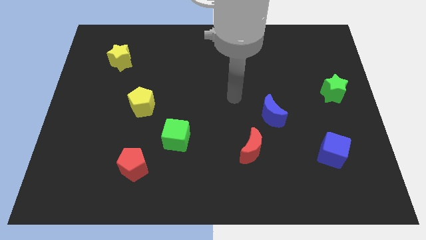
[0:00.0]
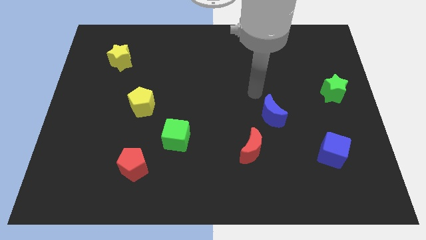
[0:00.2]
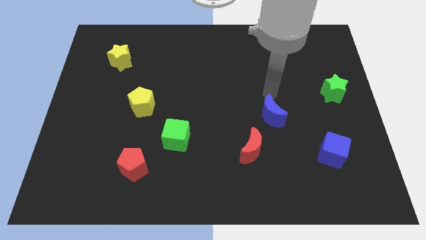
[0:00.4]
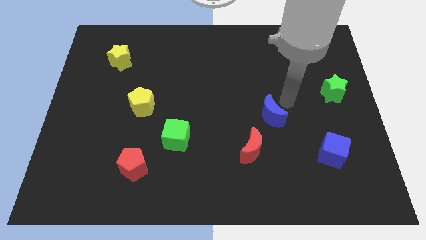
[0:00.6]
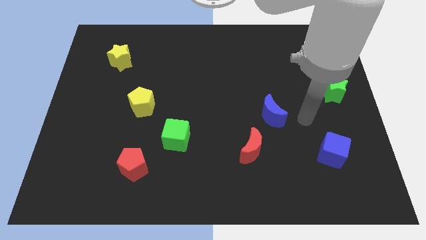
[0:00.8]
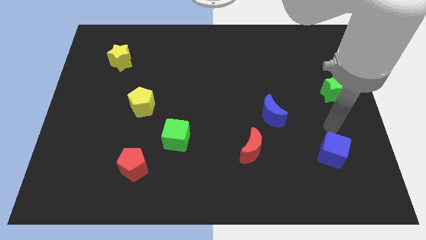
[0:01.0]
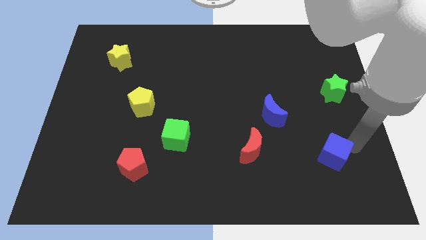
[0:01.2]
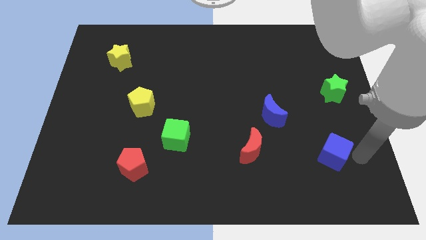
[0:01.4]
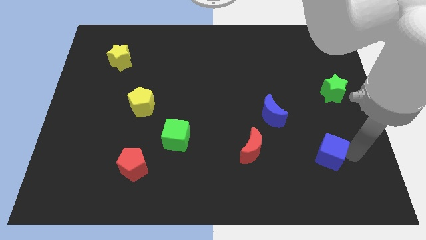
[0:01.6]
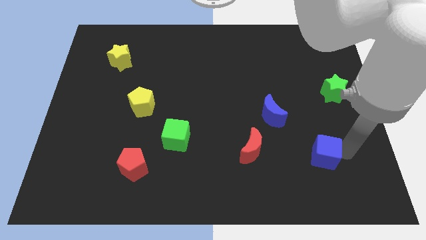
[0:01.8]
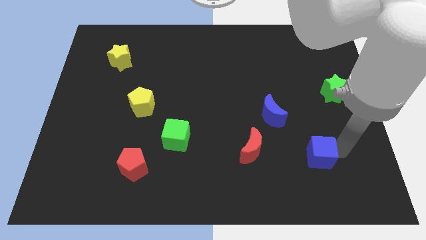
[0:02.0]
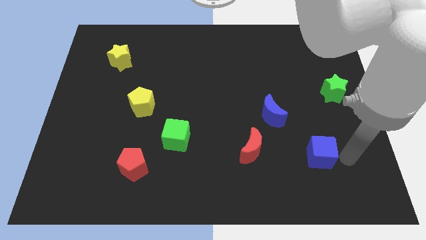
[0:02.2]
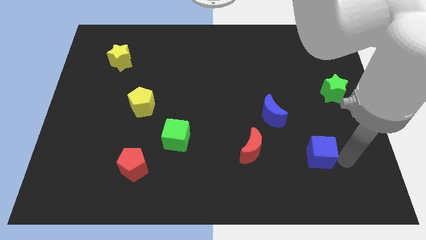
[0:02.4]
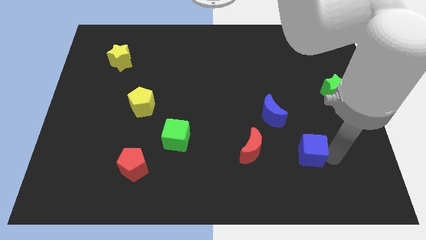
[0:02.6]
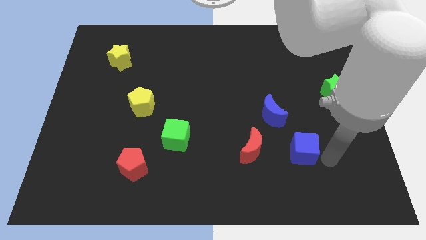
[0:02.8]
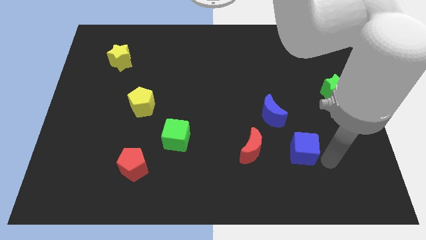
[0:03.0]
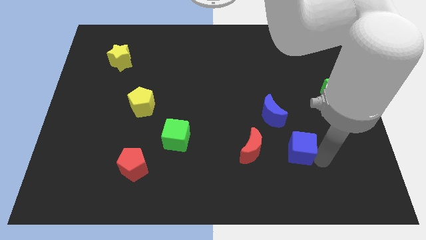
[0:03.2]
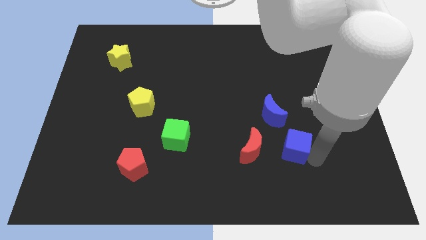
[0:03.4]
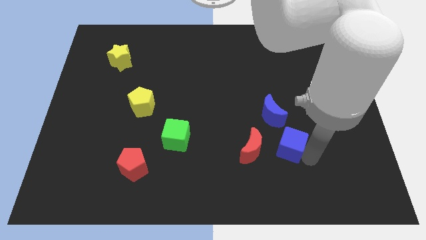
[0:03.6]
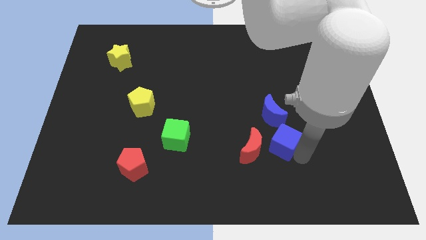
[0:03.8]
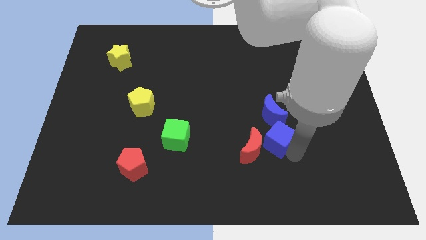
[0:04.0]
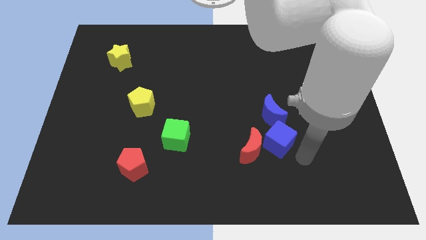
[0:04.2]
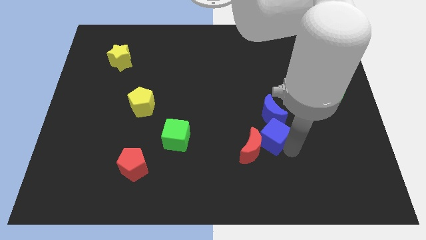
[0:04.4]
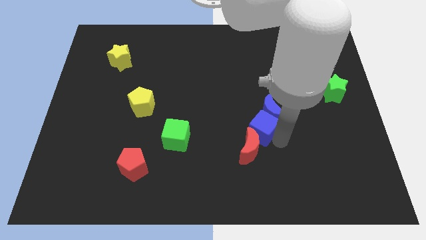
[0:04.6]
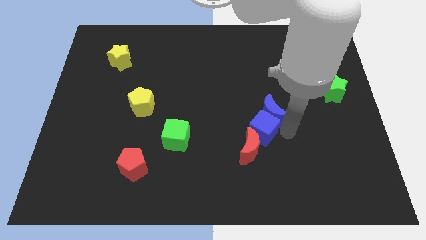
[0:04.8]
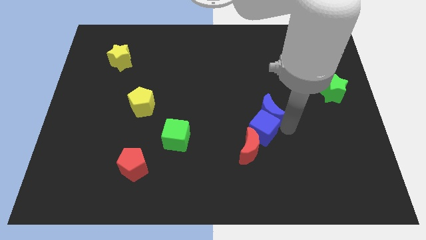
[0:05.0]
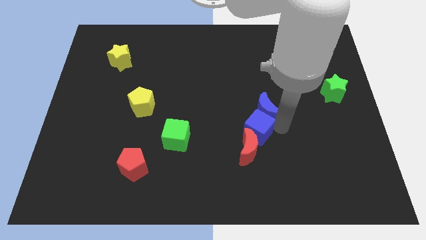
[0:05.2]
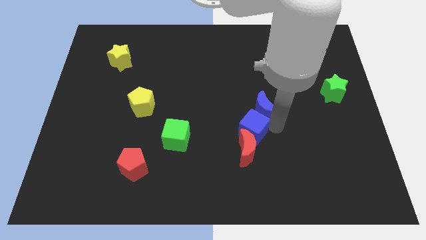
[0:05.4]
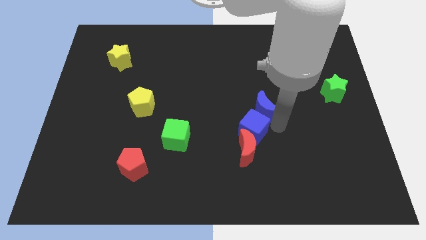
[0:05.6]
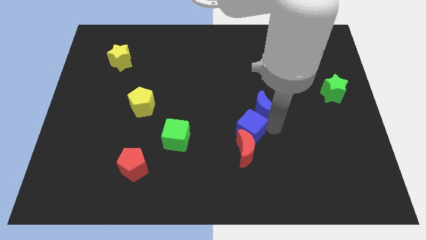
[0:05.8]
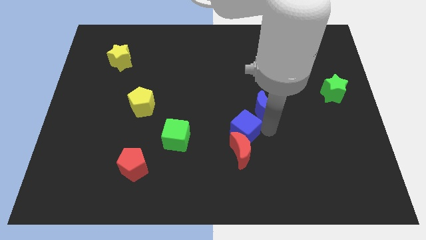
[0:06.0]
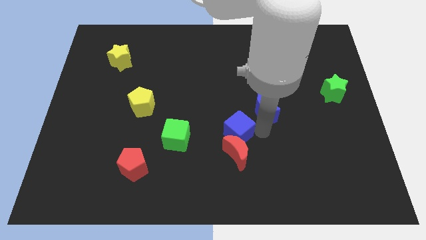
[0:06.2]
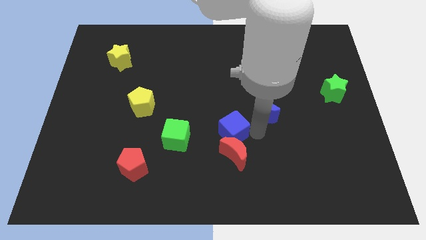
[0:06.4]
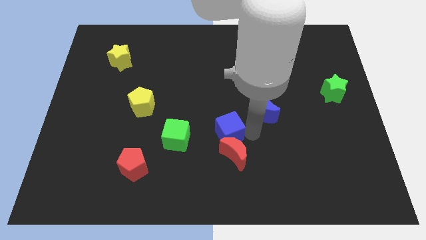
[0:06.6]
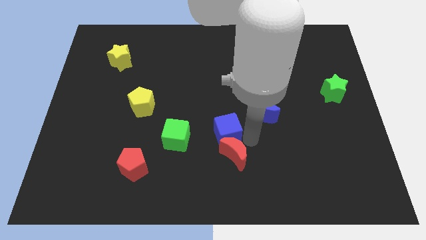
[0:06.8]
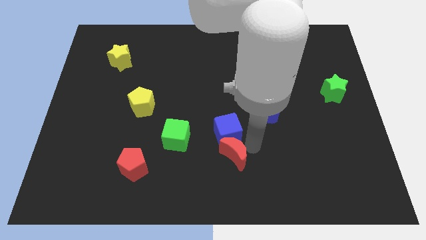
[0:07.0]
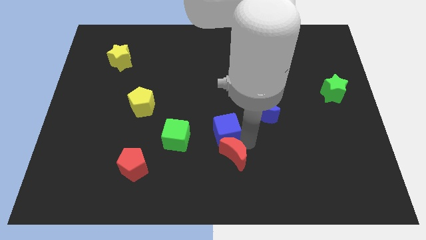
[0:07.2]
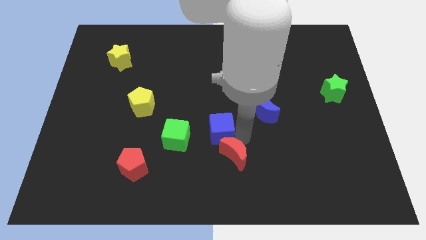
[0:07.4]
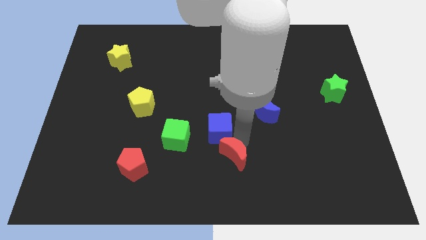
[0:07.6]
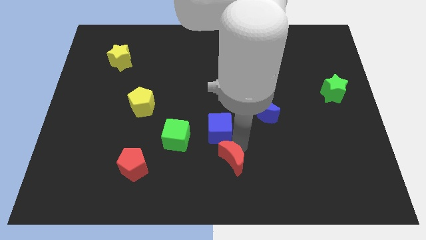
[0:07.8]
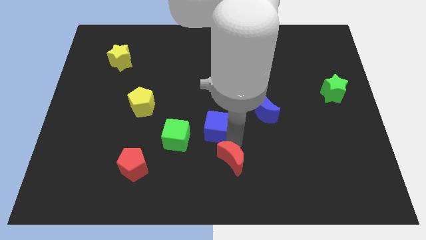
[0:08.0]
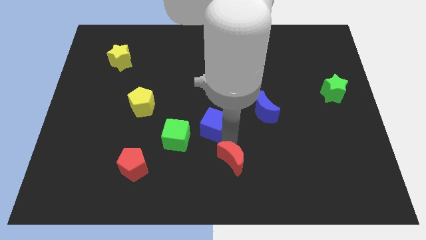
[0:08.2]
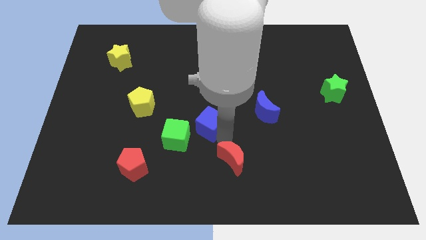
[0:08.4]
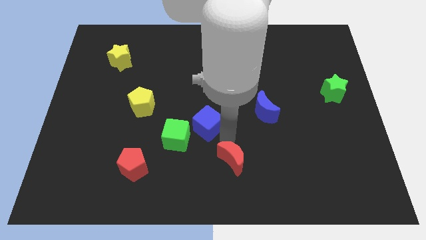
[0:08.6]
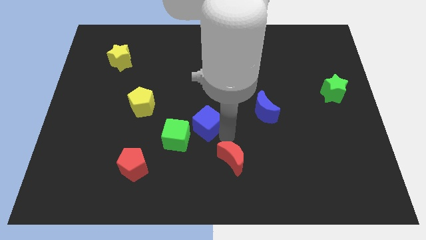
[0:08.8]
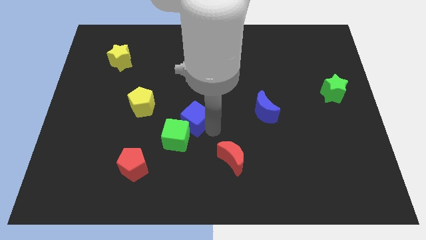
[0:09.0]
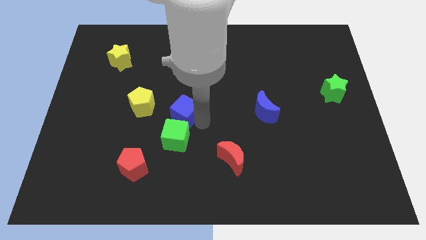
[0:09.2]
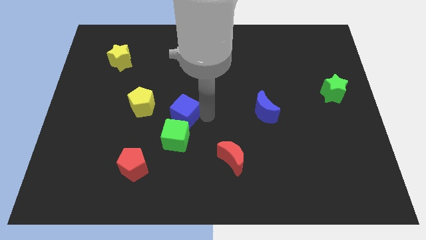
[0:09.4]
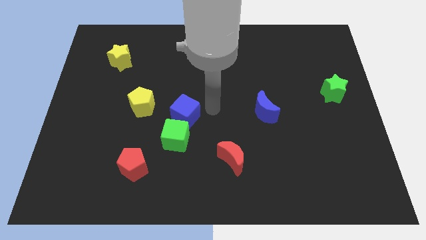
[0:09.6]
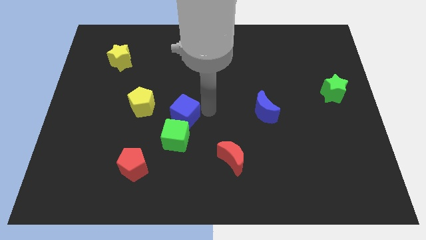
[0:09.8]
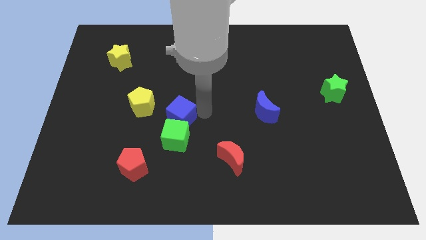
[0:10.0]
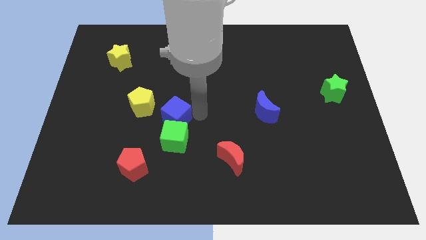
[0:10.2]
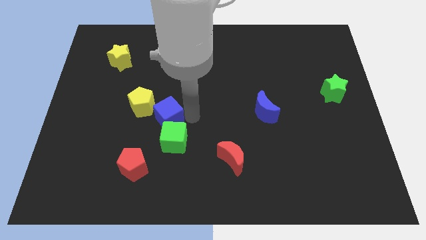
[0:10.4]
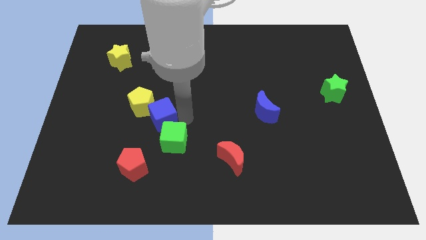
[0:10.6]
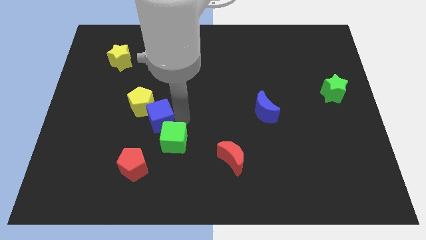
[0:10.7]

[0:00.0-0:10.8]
move the blue cube to the top side of the red pentagon

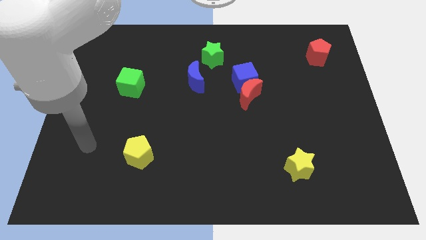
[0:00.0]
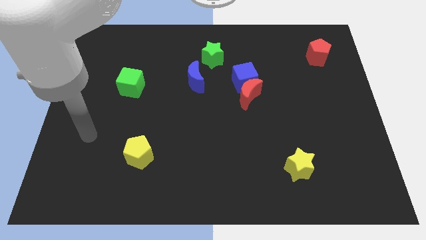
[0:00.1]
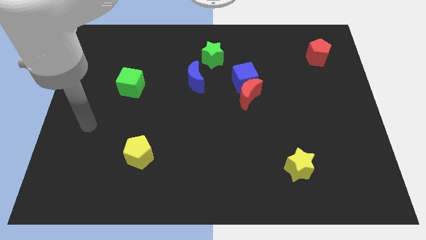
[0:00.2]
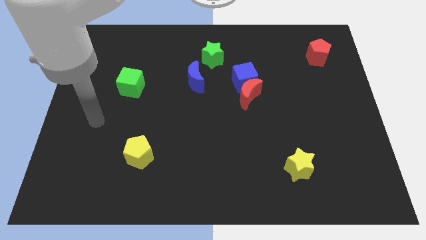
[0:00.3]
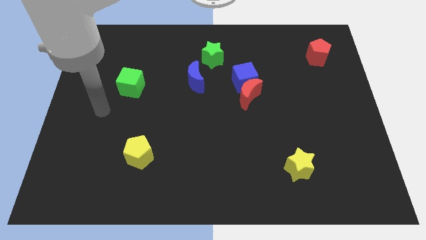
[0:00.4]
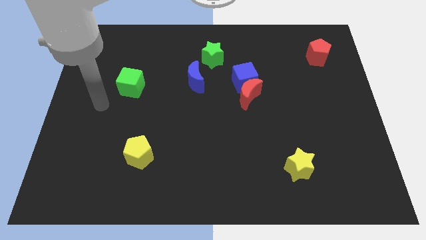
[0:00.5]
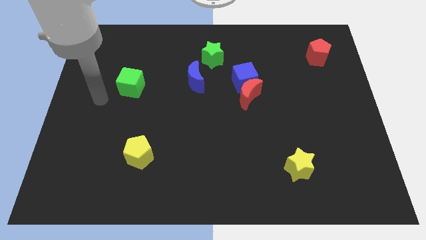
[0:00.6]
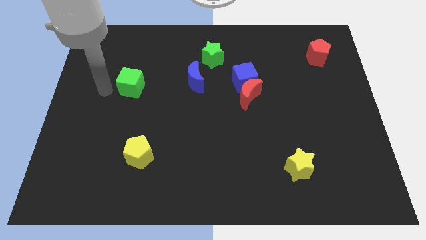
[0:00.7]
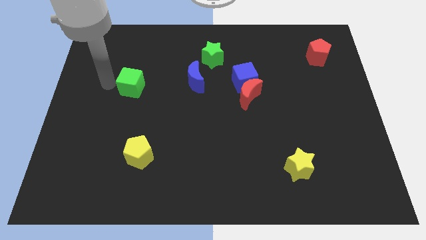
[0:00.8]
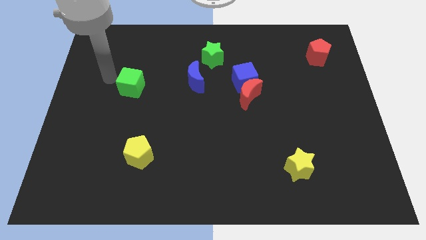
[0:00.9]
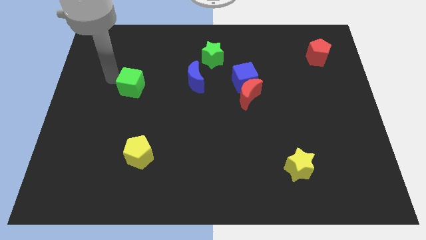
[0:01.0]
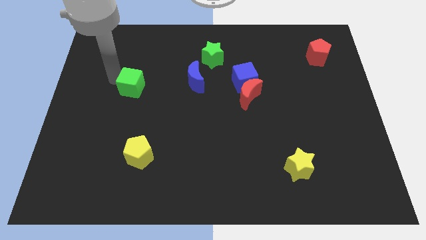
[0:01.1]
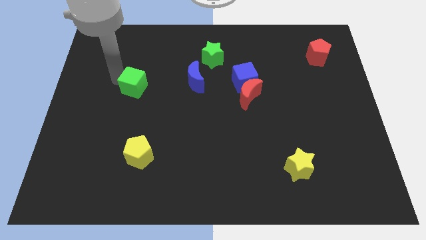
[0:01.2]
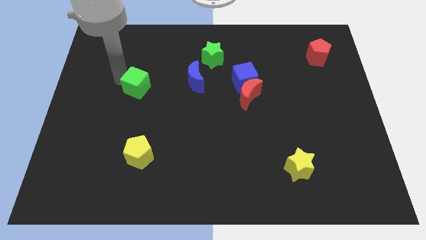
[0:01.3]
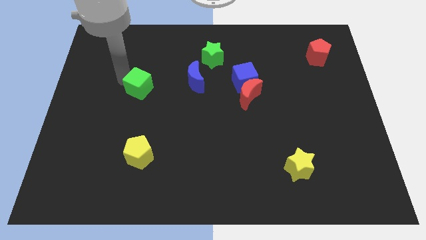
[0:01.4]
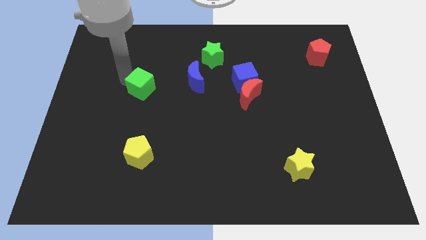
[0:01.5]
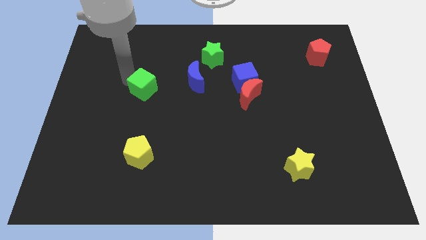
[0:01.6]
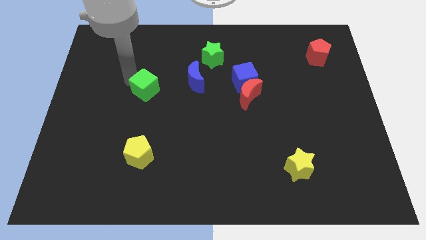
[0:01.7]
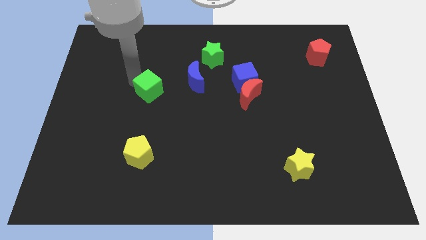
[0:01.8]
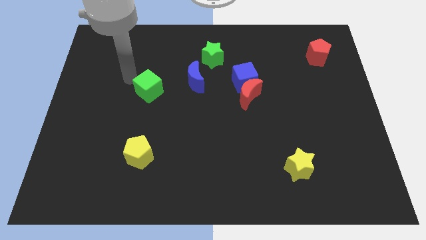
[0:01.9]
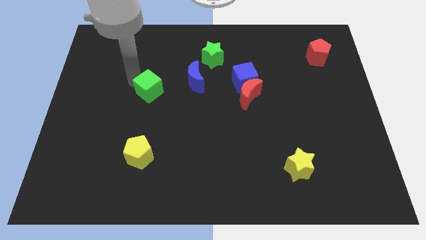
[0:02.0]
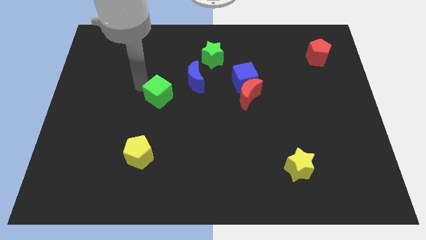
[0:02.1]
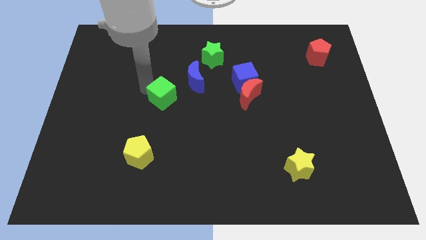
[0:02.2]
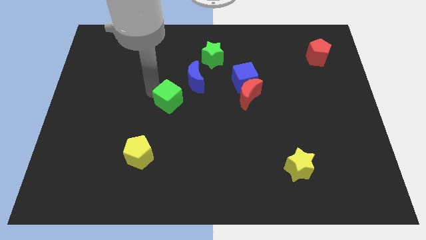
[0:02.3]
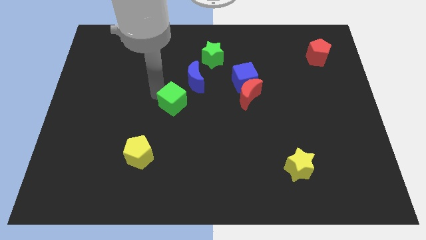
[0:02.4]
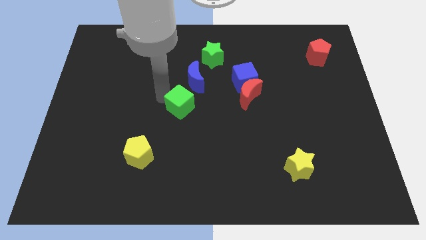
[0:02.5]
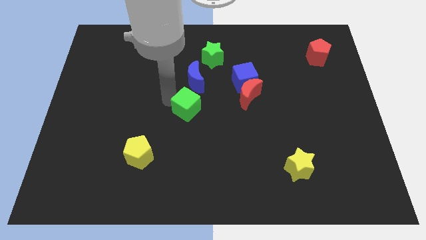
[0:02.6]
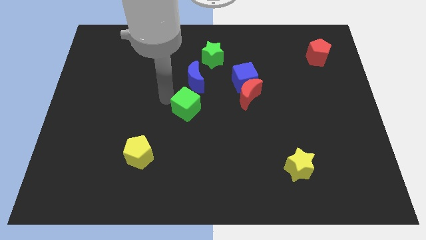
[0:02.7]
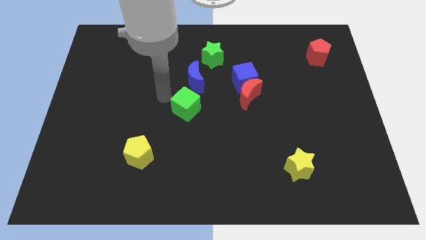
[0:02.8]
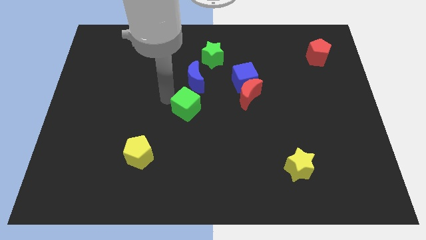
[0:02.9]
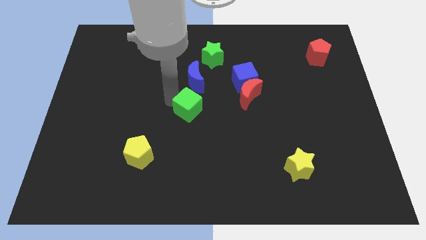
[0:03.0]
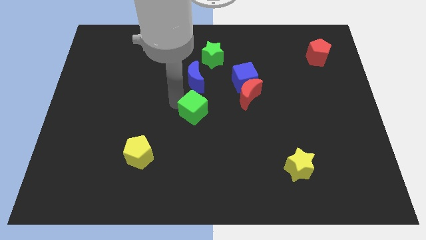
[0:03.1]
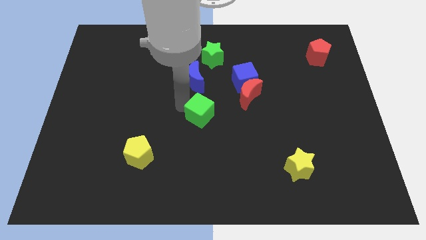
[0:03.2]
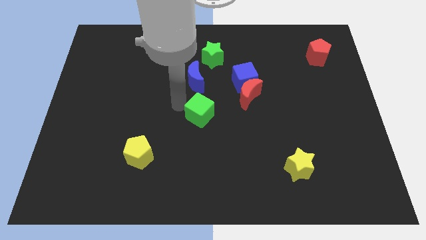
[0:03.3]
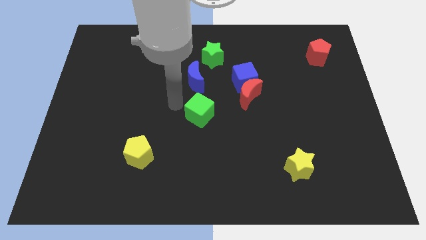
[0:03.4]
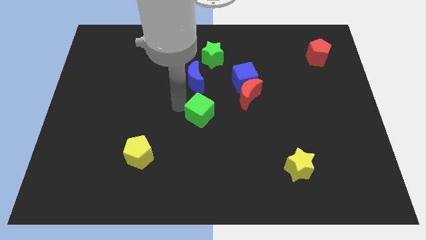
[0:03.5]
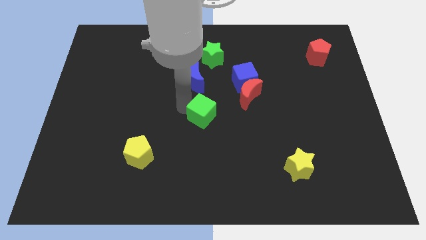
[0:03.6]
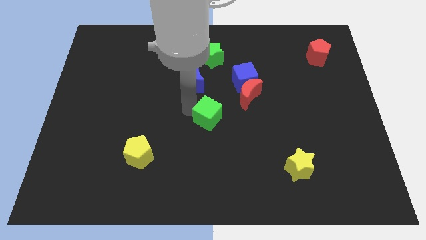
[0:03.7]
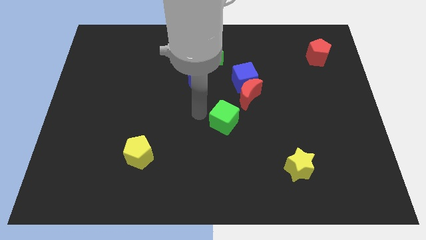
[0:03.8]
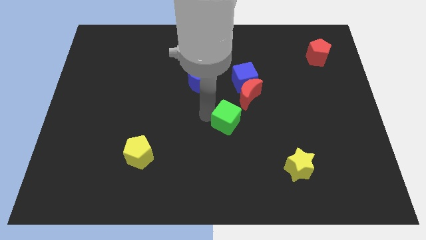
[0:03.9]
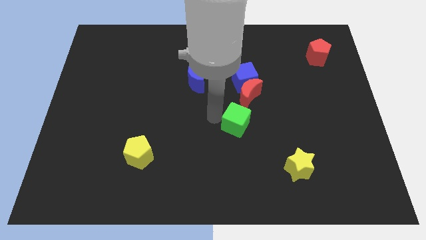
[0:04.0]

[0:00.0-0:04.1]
move the green cube to the bottom of the red moon
